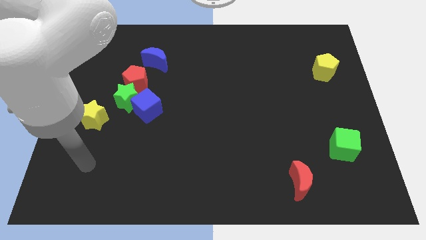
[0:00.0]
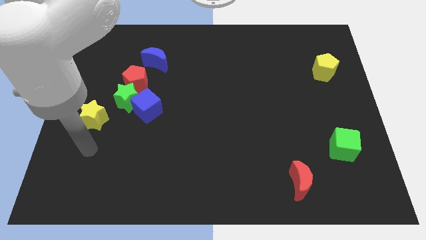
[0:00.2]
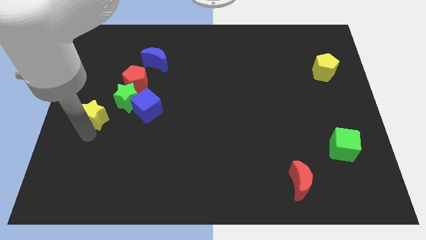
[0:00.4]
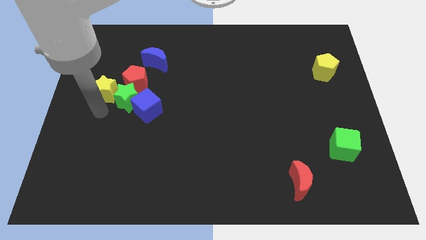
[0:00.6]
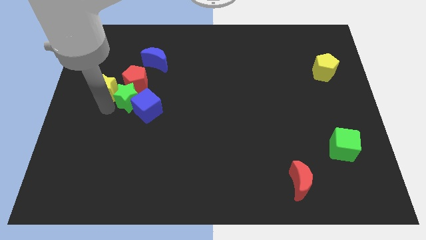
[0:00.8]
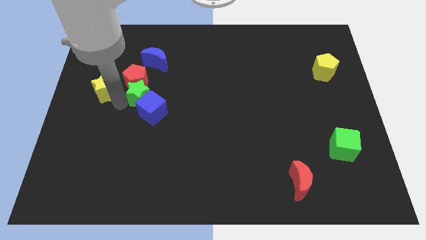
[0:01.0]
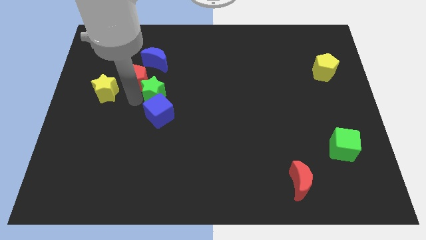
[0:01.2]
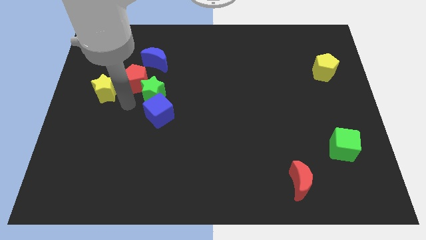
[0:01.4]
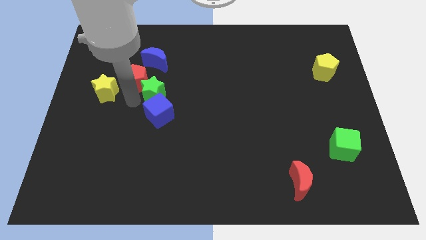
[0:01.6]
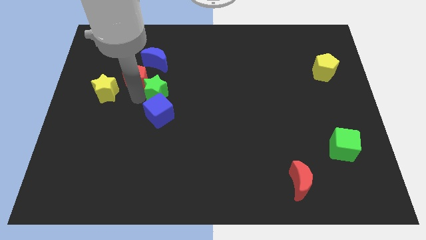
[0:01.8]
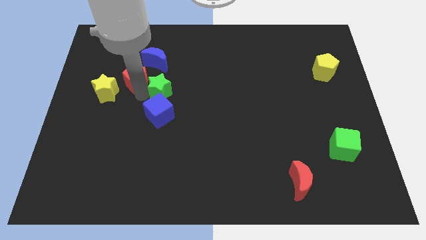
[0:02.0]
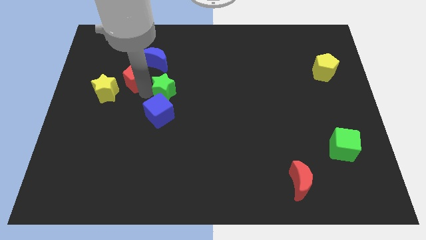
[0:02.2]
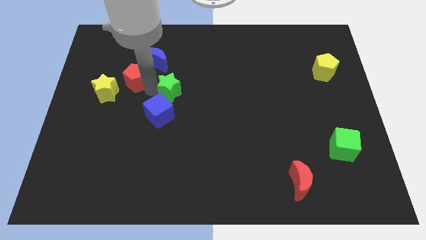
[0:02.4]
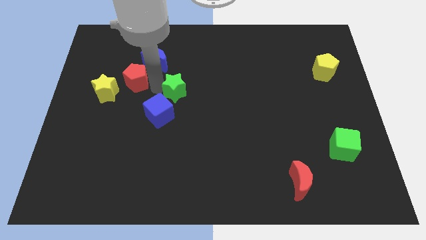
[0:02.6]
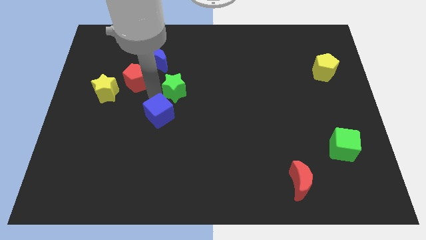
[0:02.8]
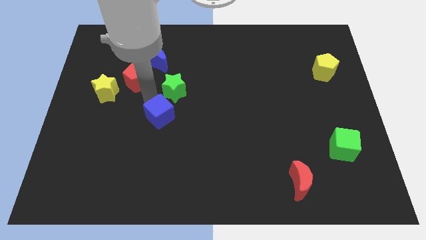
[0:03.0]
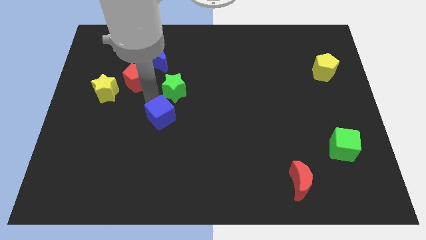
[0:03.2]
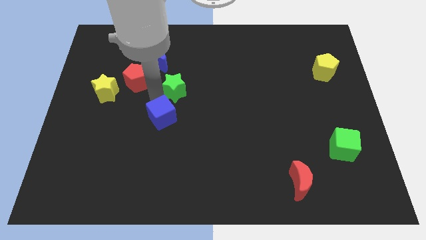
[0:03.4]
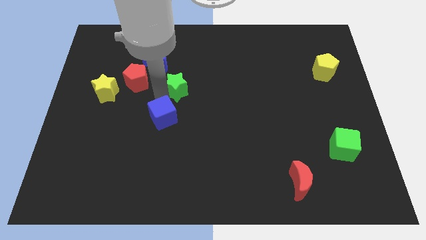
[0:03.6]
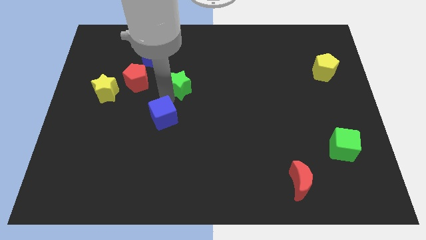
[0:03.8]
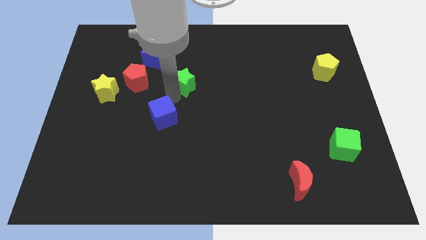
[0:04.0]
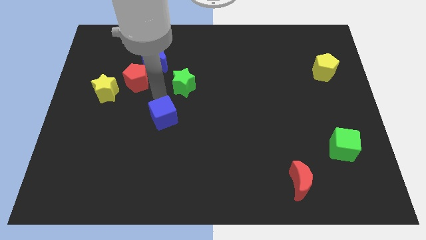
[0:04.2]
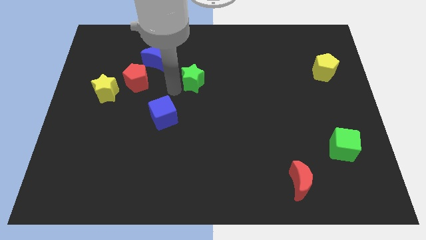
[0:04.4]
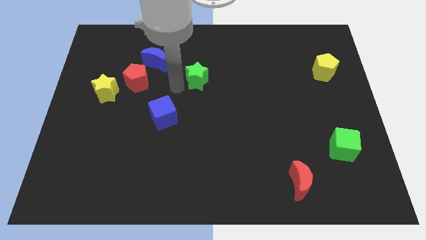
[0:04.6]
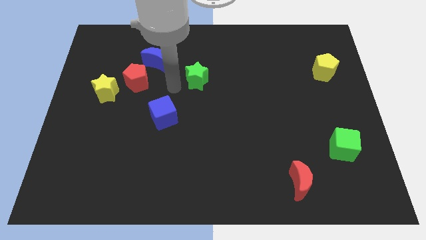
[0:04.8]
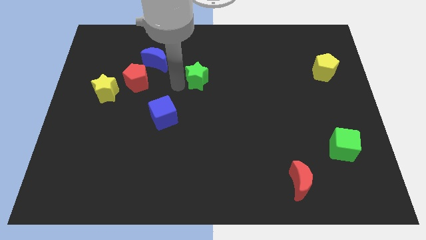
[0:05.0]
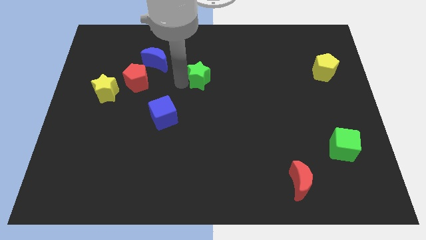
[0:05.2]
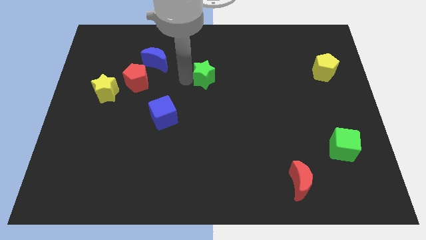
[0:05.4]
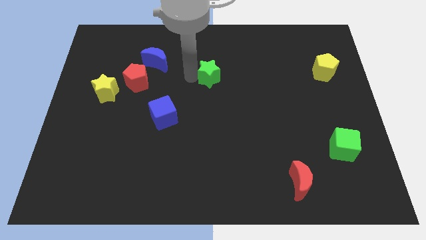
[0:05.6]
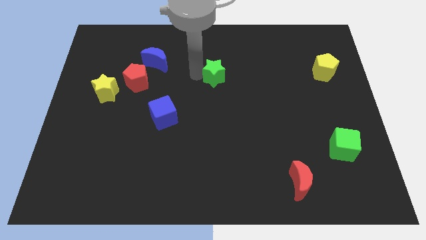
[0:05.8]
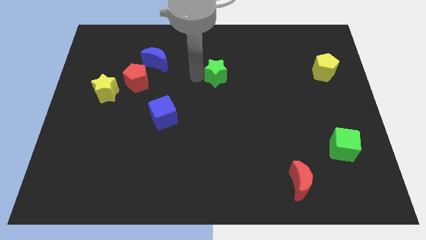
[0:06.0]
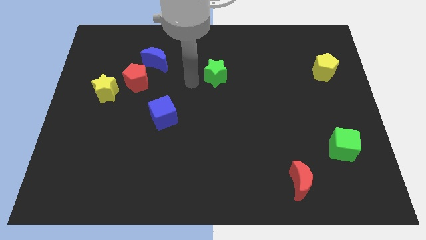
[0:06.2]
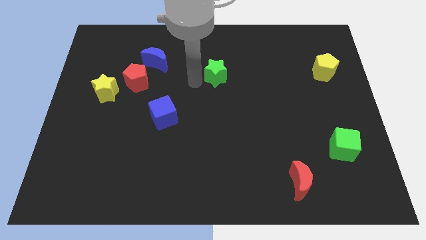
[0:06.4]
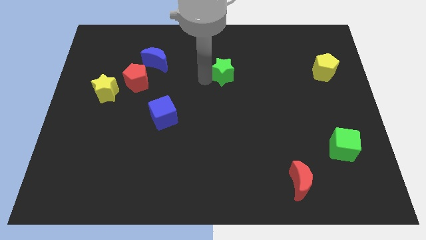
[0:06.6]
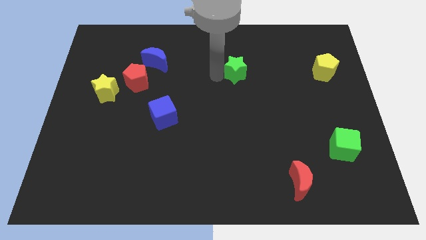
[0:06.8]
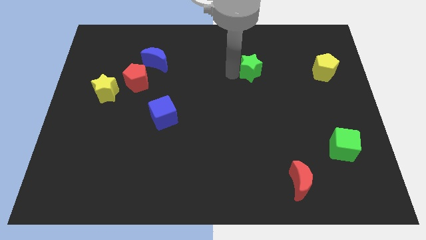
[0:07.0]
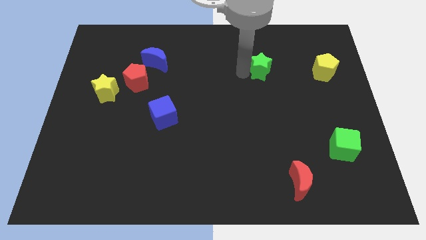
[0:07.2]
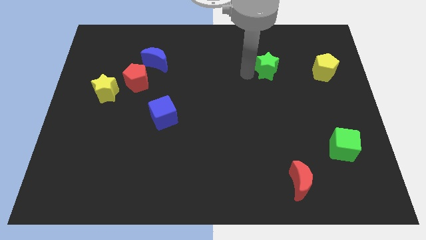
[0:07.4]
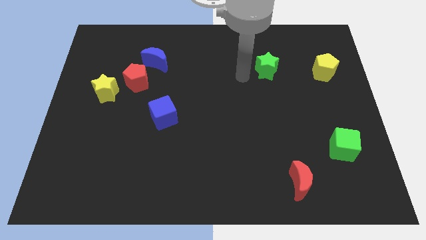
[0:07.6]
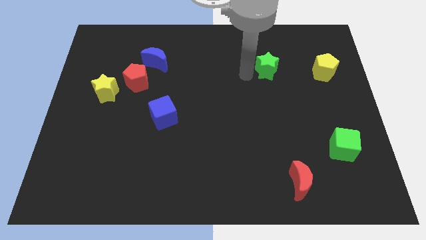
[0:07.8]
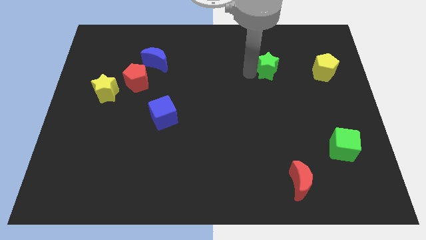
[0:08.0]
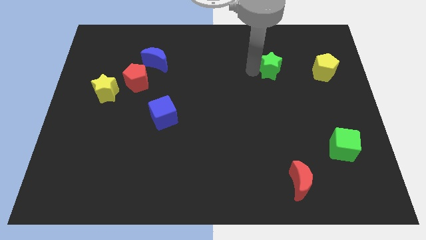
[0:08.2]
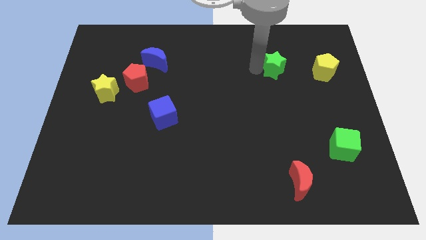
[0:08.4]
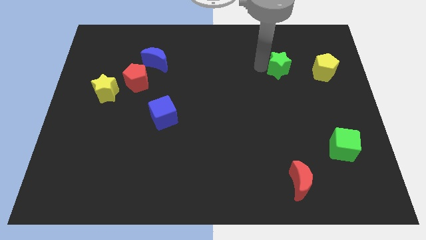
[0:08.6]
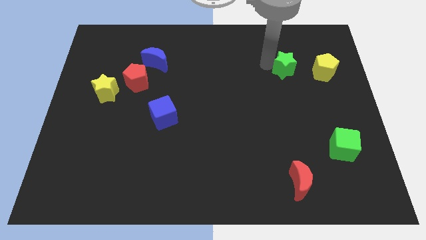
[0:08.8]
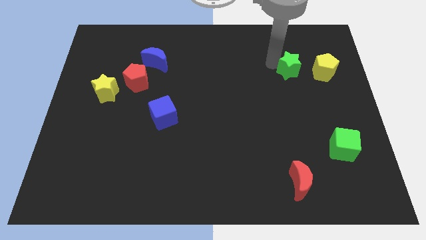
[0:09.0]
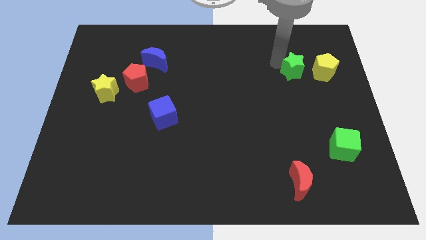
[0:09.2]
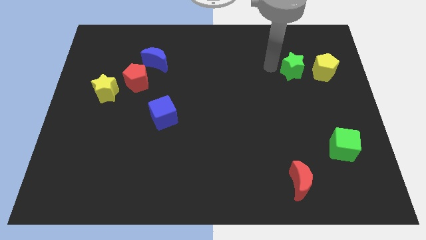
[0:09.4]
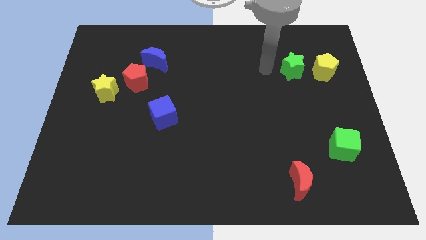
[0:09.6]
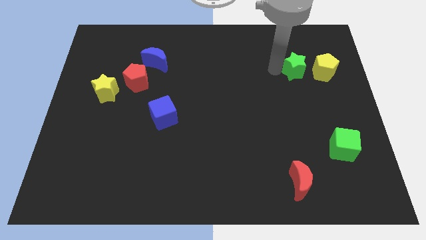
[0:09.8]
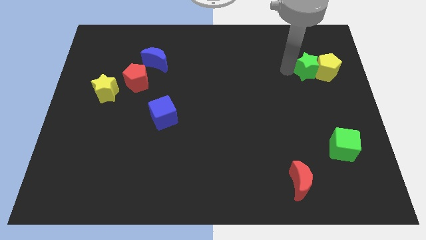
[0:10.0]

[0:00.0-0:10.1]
move the green star to the yellow pentagon

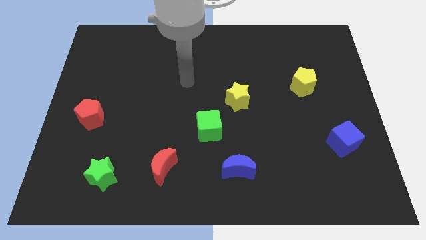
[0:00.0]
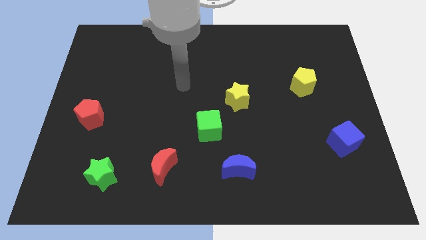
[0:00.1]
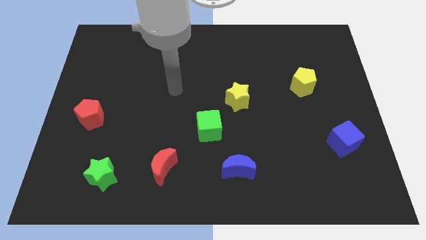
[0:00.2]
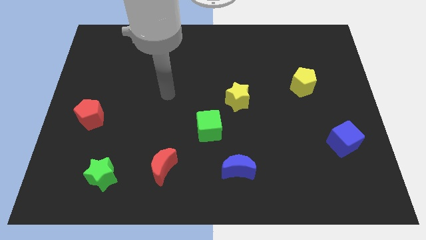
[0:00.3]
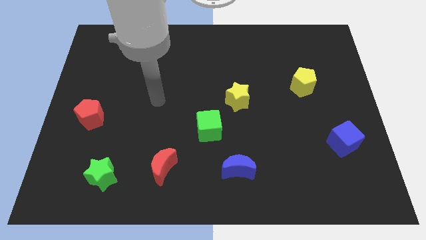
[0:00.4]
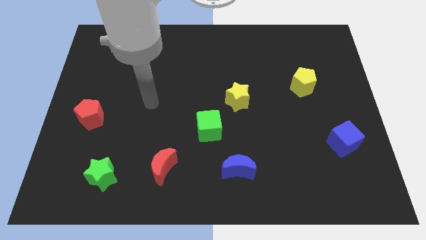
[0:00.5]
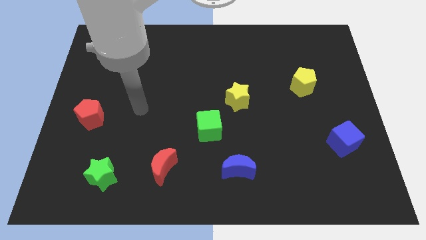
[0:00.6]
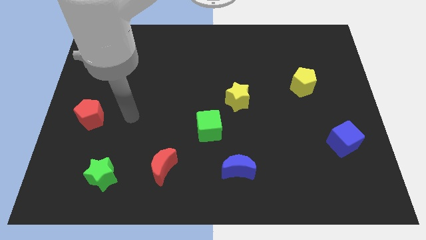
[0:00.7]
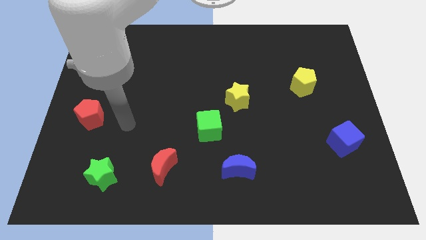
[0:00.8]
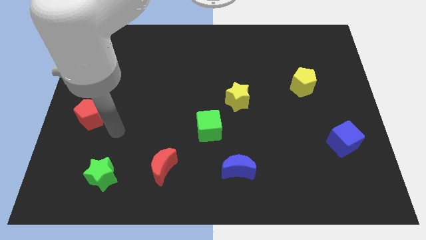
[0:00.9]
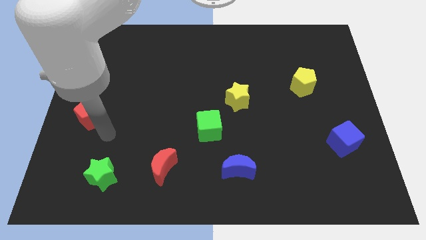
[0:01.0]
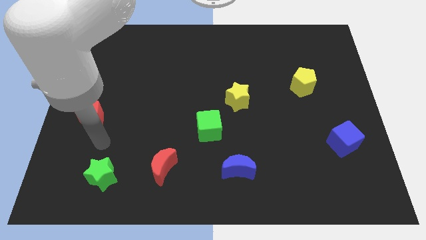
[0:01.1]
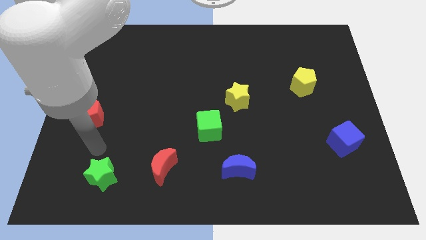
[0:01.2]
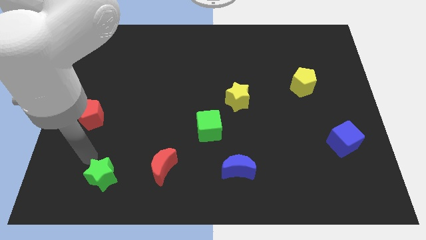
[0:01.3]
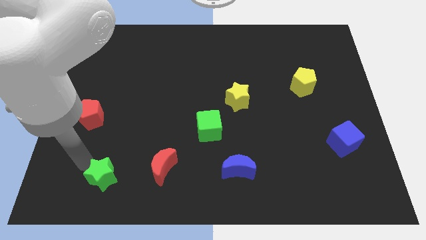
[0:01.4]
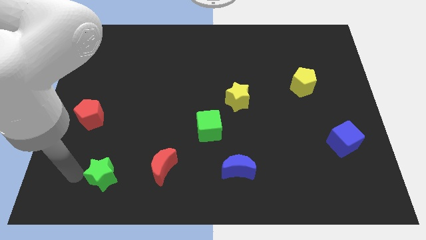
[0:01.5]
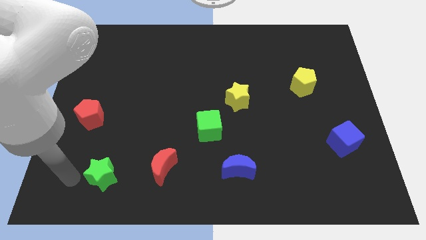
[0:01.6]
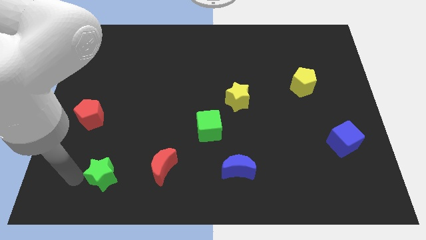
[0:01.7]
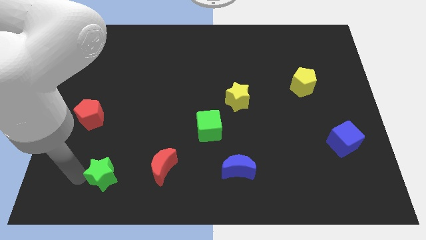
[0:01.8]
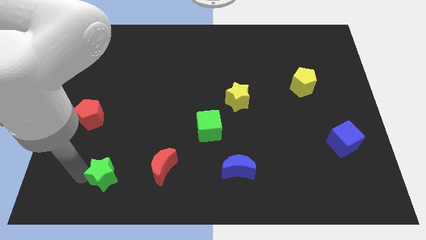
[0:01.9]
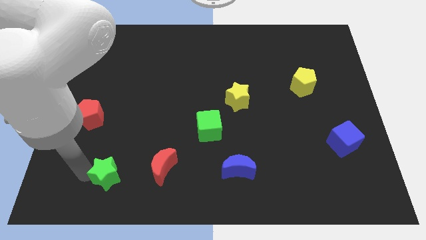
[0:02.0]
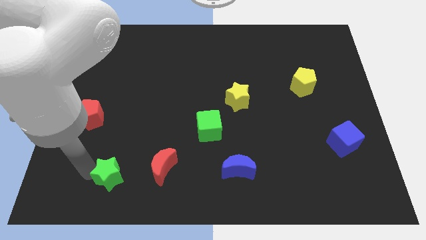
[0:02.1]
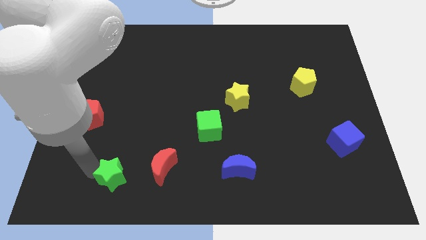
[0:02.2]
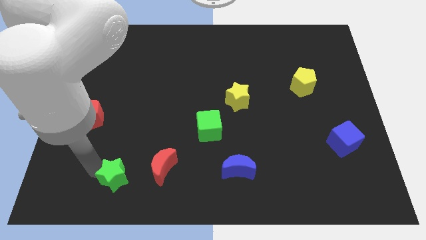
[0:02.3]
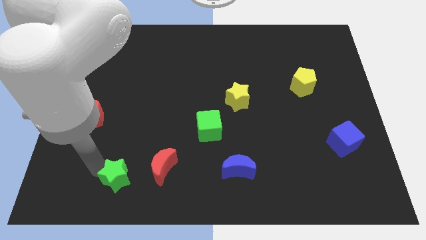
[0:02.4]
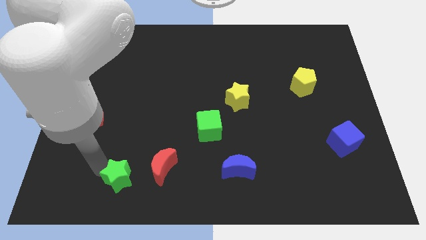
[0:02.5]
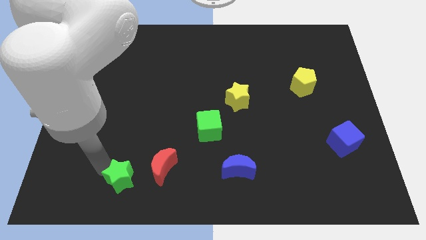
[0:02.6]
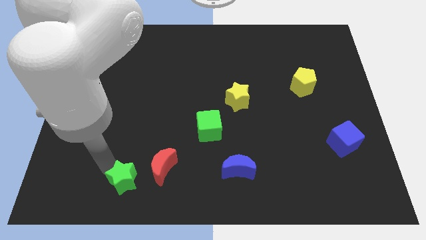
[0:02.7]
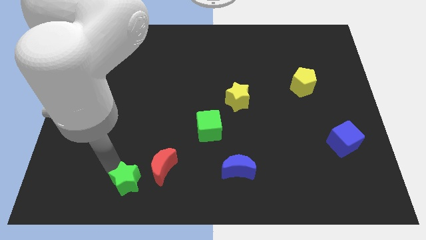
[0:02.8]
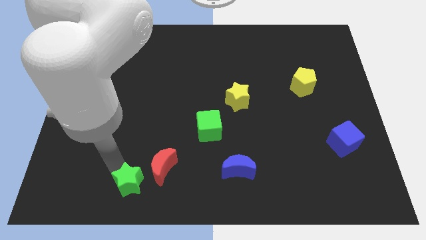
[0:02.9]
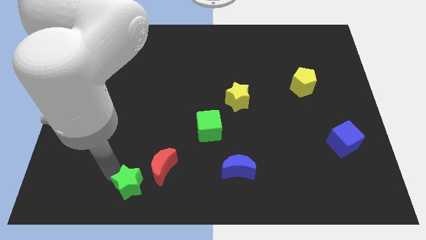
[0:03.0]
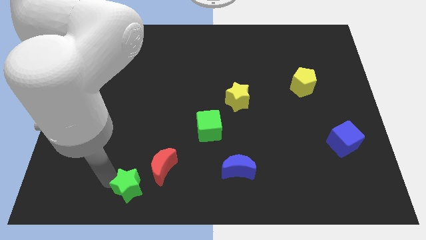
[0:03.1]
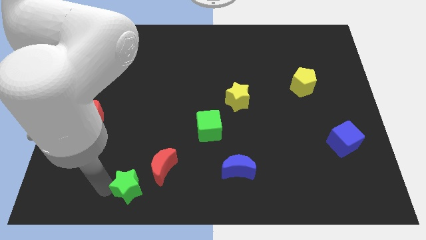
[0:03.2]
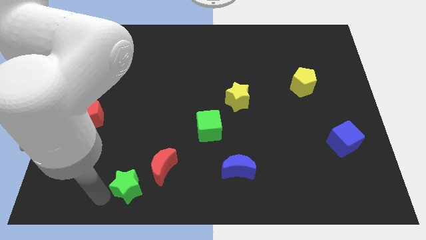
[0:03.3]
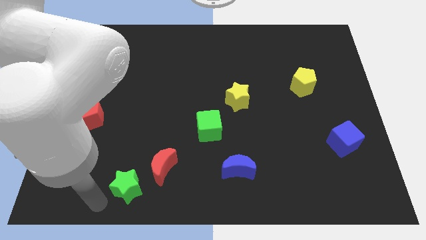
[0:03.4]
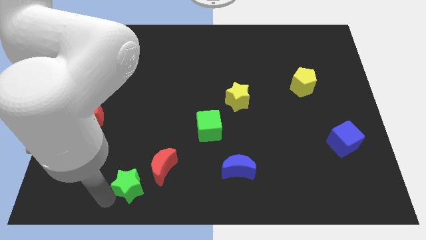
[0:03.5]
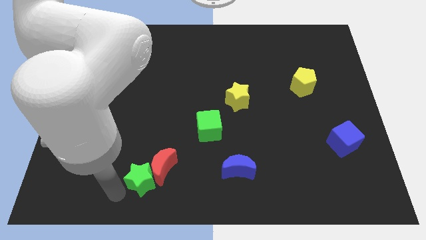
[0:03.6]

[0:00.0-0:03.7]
slide the green star to the red moon
